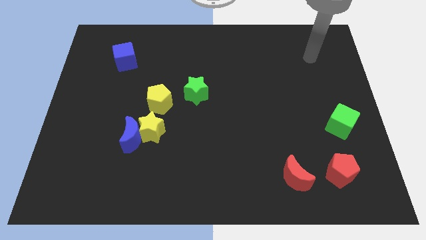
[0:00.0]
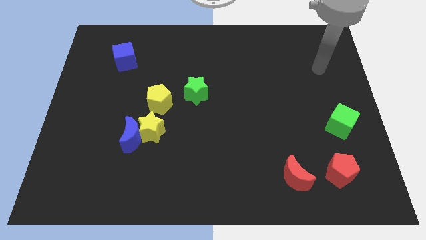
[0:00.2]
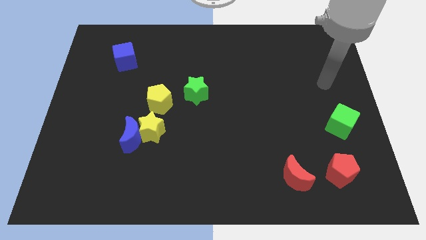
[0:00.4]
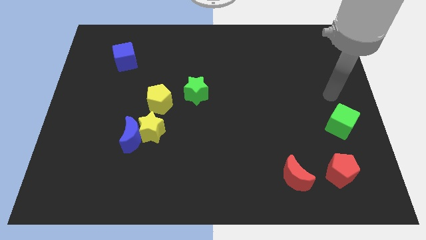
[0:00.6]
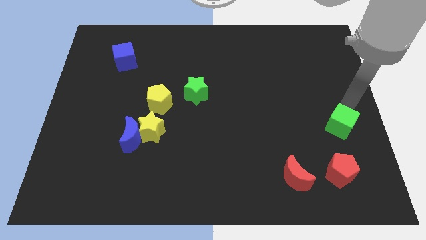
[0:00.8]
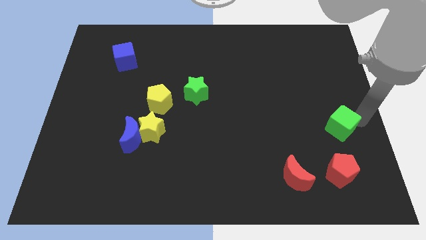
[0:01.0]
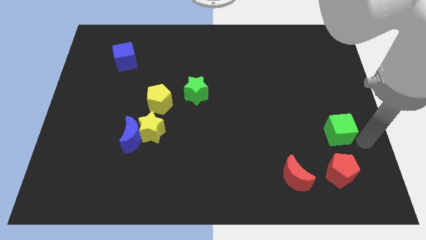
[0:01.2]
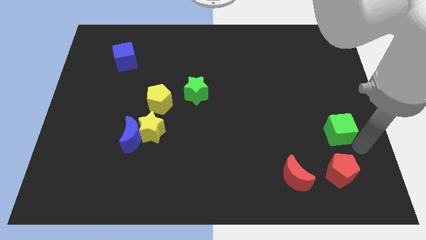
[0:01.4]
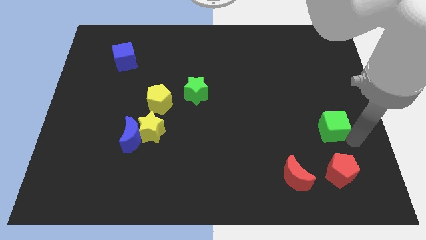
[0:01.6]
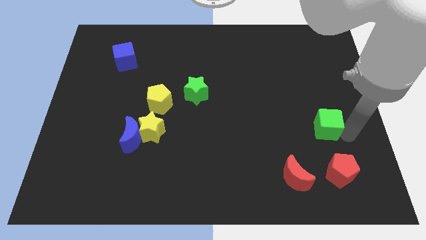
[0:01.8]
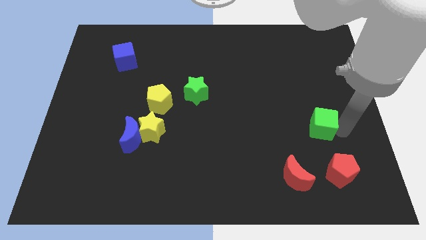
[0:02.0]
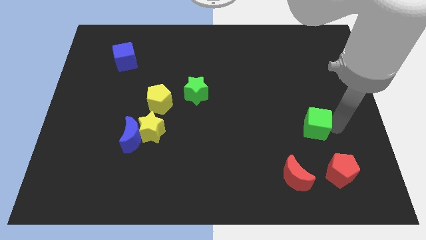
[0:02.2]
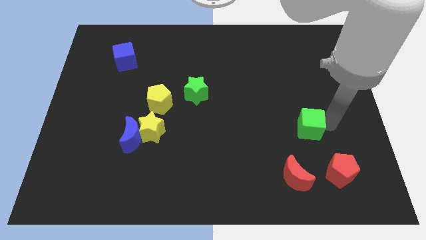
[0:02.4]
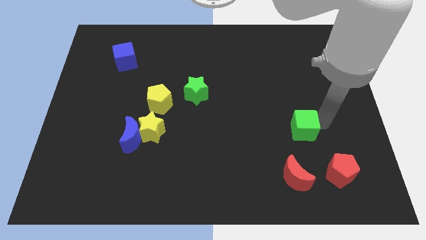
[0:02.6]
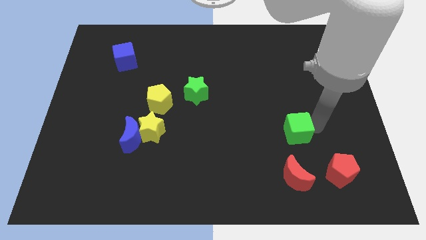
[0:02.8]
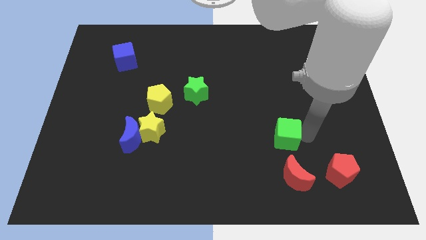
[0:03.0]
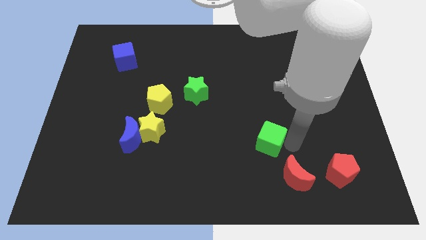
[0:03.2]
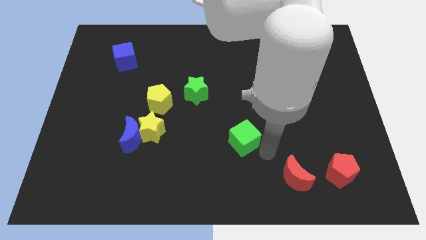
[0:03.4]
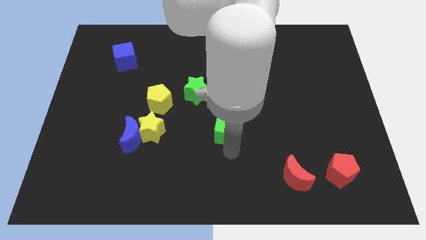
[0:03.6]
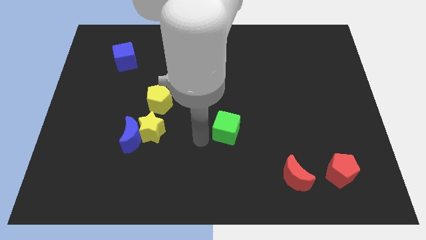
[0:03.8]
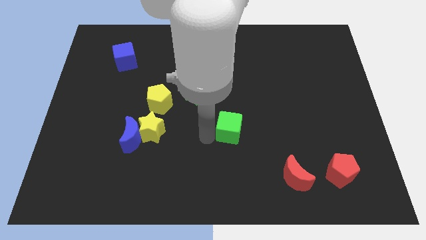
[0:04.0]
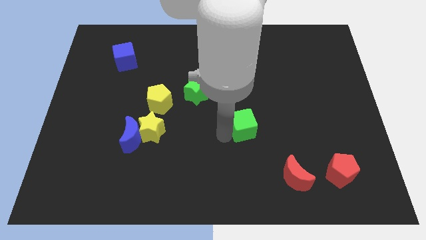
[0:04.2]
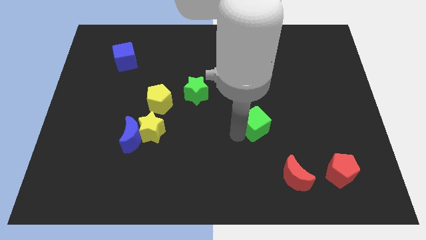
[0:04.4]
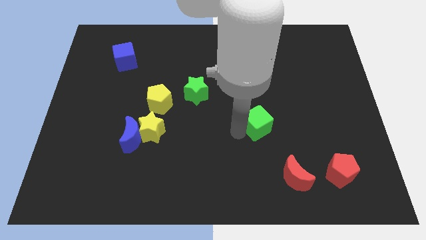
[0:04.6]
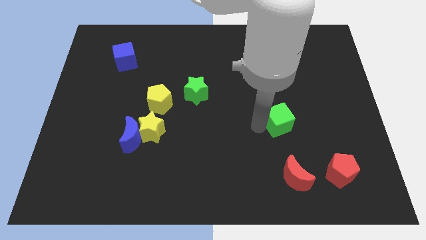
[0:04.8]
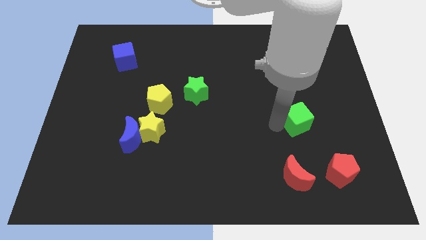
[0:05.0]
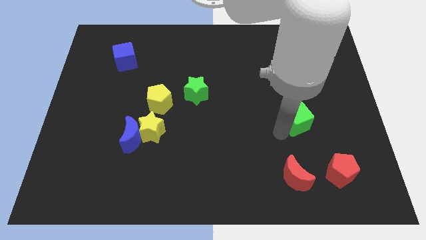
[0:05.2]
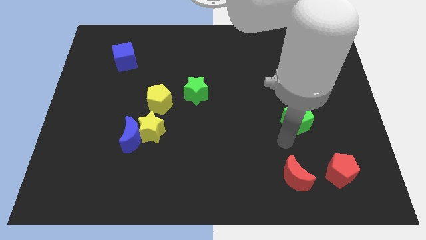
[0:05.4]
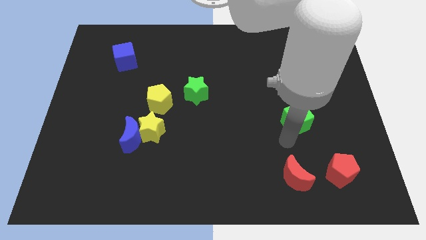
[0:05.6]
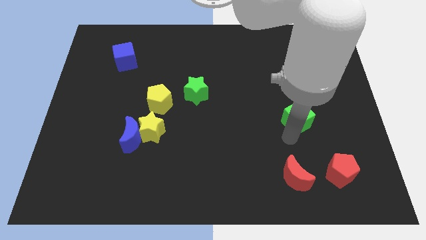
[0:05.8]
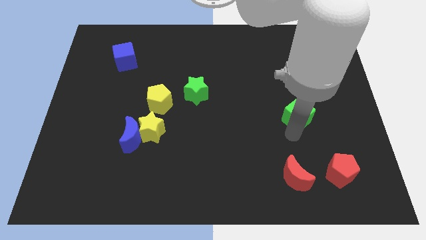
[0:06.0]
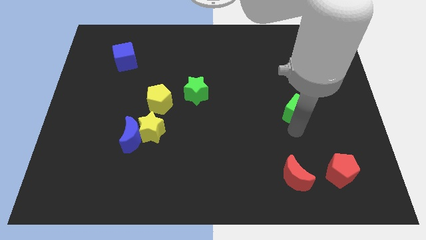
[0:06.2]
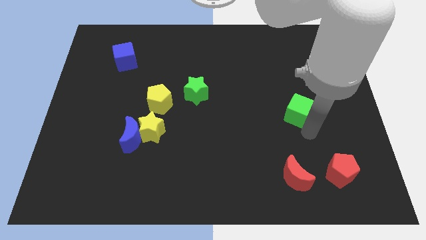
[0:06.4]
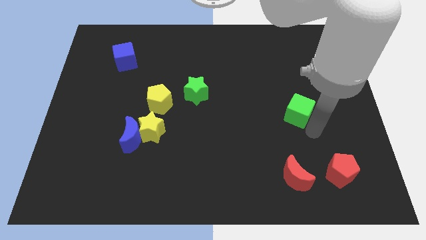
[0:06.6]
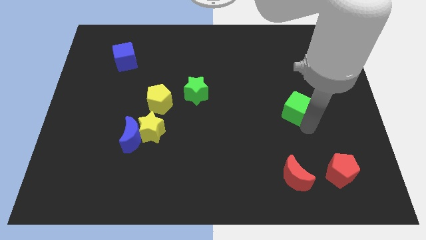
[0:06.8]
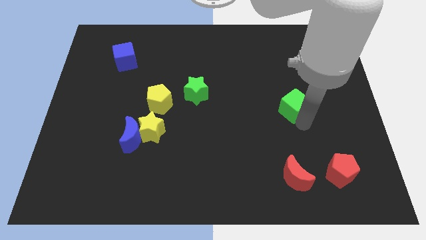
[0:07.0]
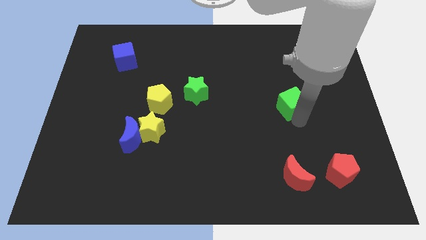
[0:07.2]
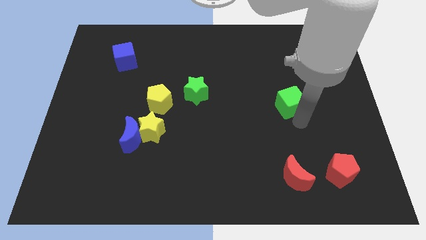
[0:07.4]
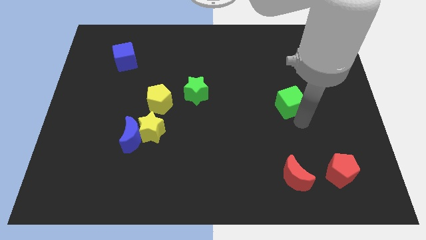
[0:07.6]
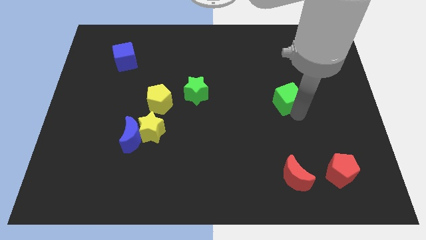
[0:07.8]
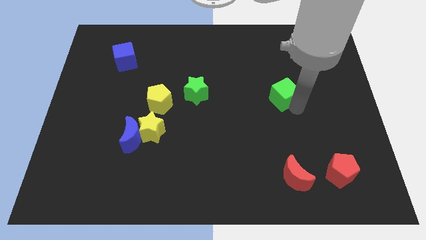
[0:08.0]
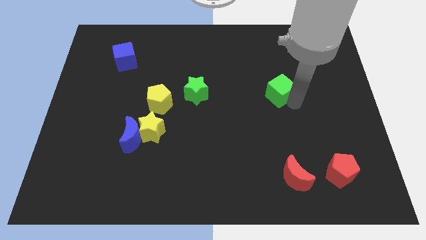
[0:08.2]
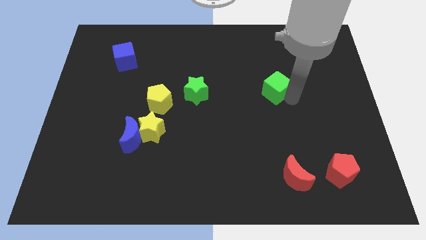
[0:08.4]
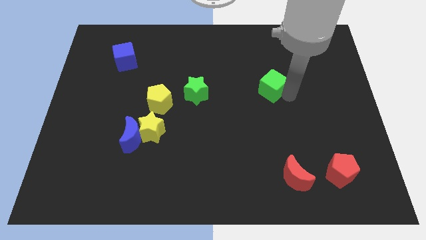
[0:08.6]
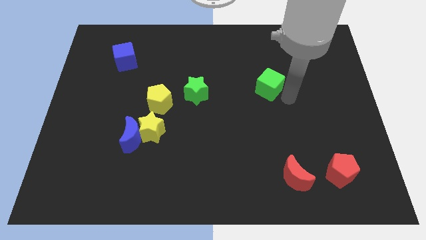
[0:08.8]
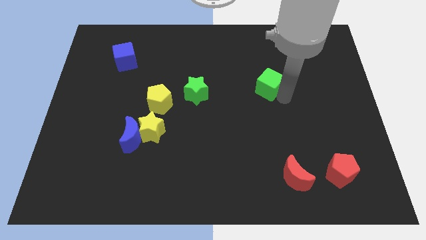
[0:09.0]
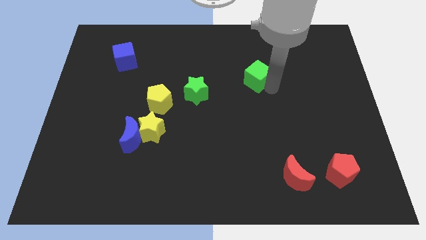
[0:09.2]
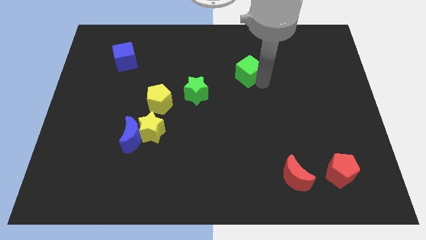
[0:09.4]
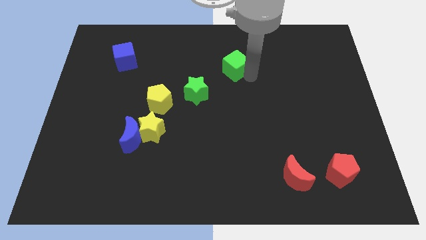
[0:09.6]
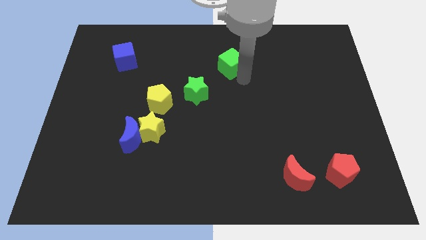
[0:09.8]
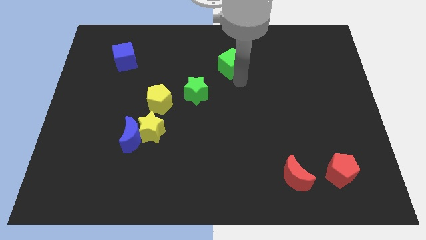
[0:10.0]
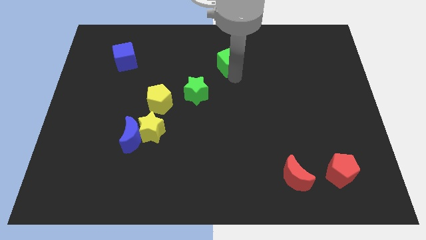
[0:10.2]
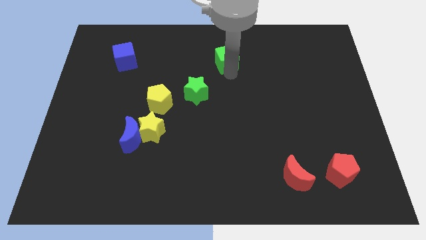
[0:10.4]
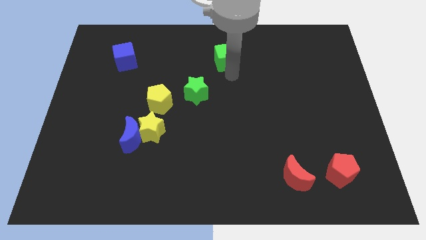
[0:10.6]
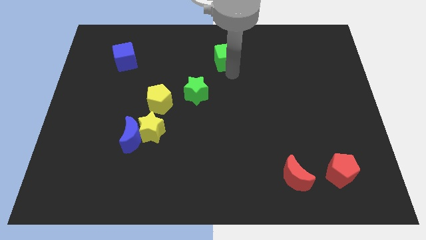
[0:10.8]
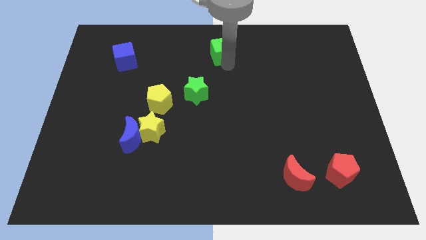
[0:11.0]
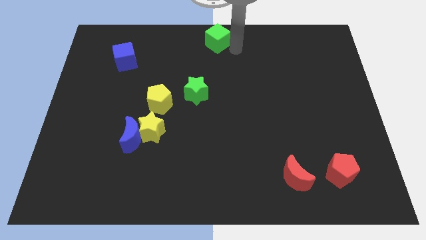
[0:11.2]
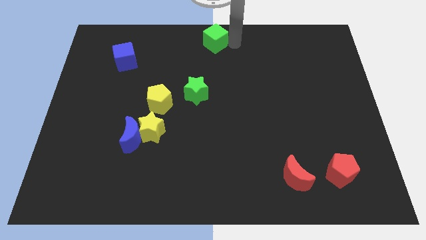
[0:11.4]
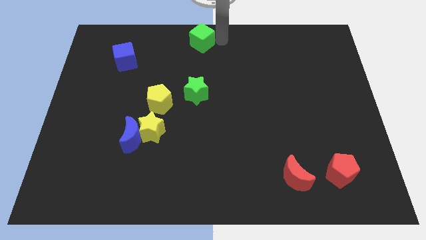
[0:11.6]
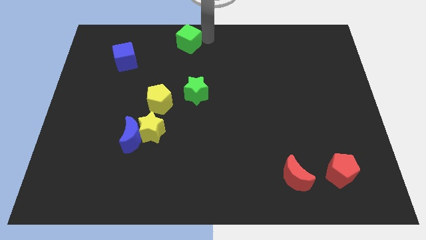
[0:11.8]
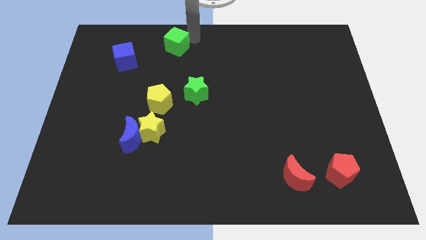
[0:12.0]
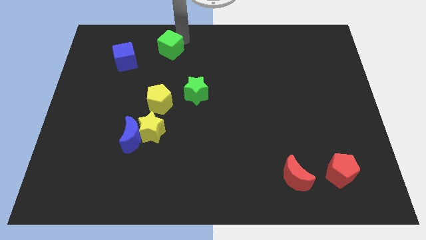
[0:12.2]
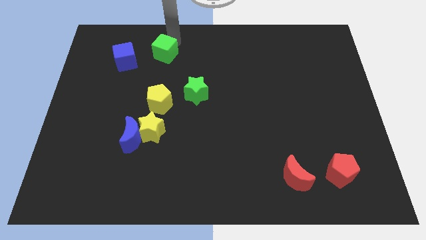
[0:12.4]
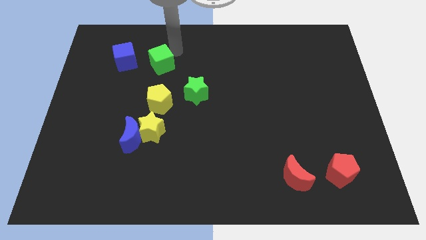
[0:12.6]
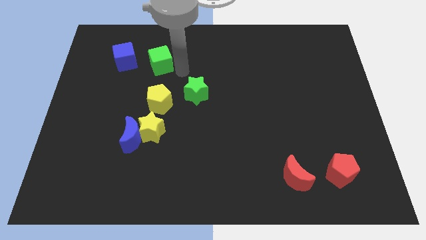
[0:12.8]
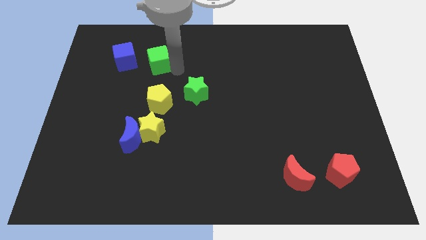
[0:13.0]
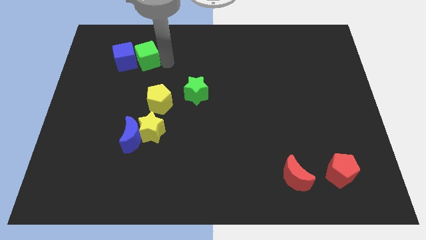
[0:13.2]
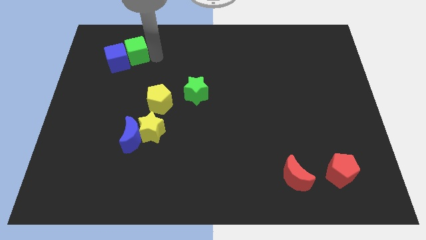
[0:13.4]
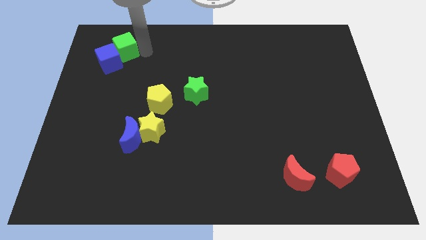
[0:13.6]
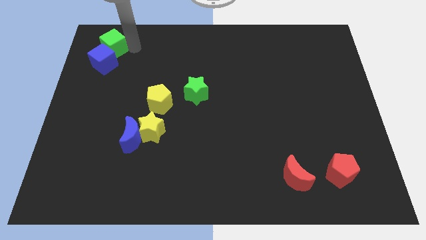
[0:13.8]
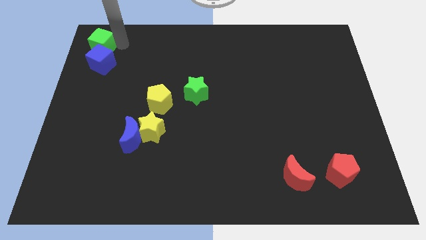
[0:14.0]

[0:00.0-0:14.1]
slide the green cube to the top left corner
